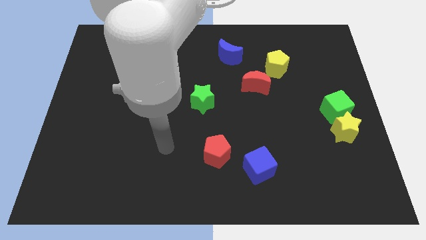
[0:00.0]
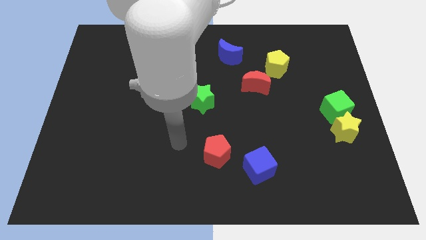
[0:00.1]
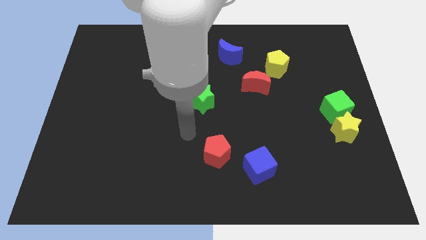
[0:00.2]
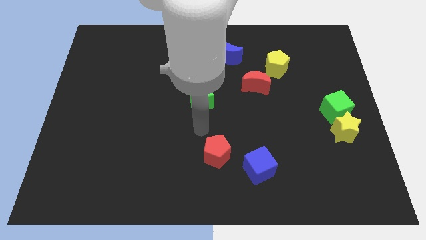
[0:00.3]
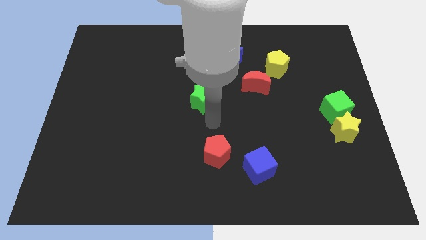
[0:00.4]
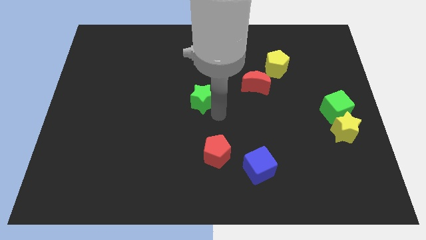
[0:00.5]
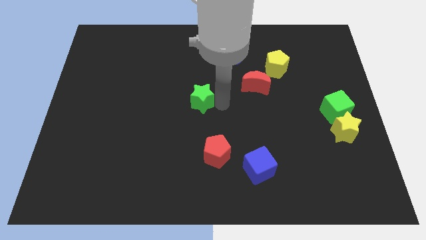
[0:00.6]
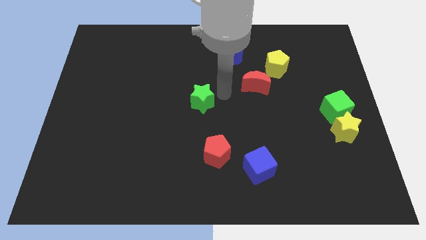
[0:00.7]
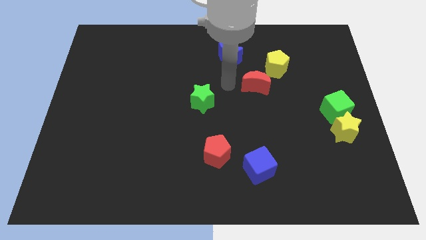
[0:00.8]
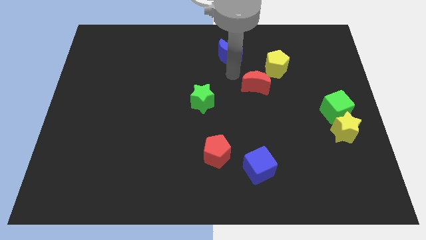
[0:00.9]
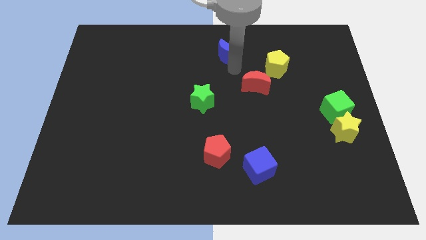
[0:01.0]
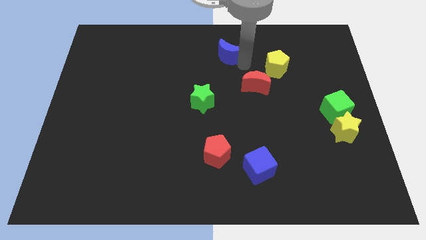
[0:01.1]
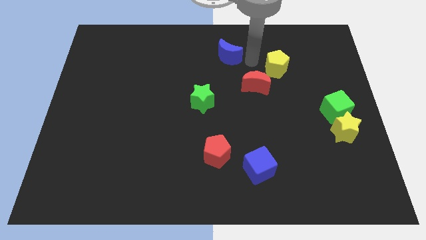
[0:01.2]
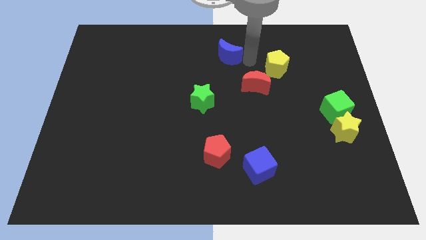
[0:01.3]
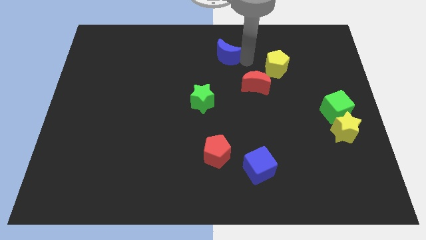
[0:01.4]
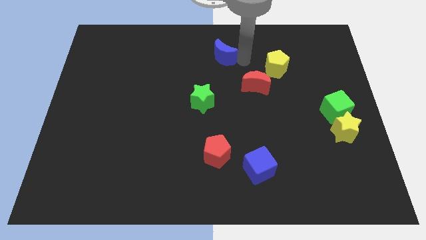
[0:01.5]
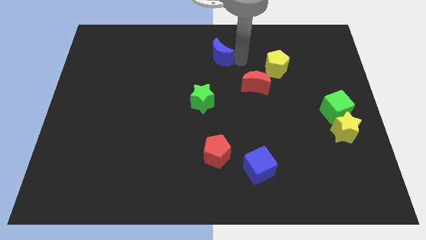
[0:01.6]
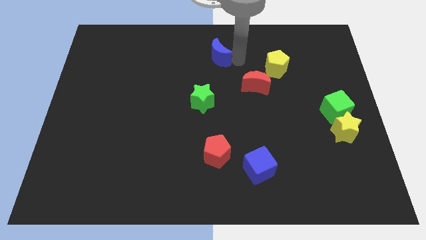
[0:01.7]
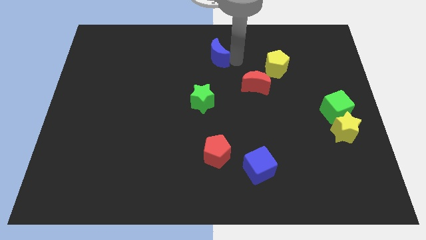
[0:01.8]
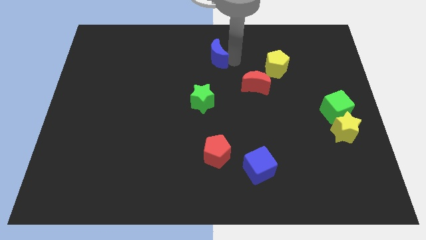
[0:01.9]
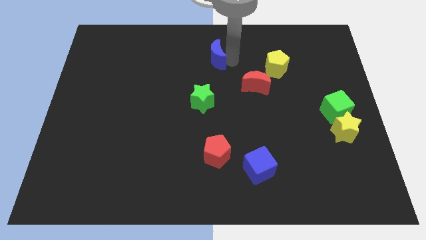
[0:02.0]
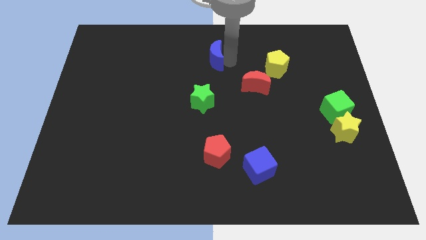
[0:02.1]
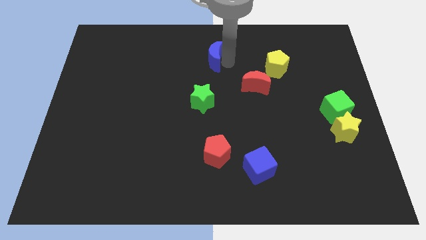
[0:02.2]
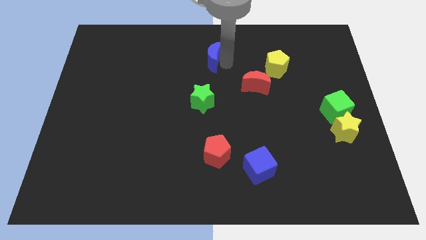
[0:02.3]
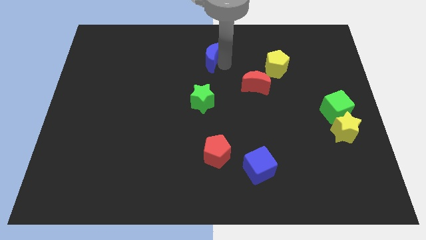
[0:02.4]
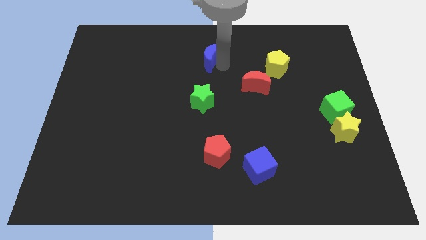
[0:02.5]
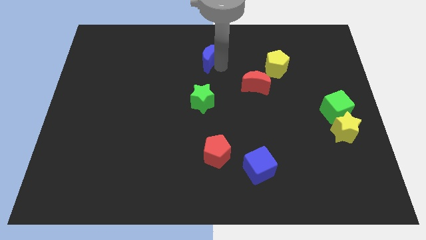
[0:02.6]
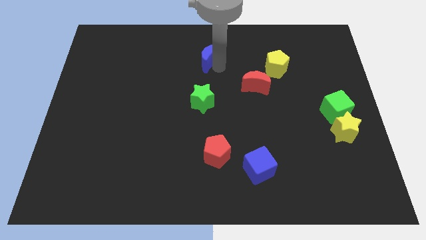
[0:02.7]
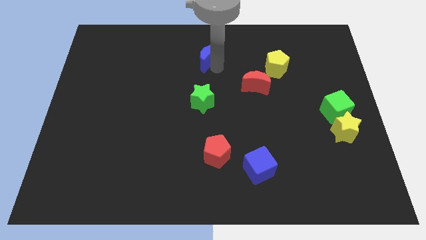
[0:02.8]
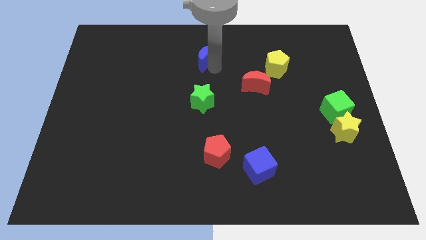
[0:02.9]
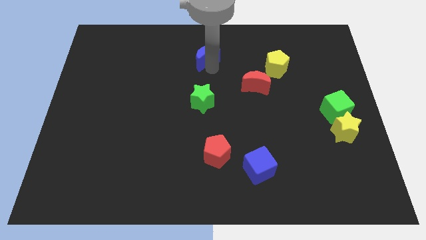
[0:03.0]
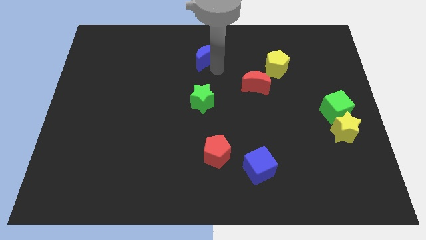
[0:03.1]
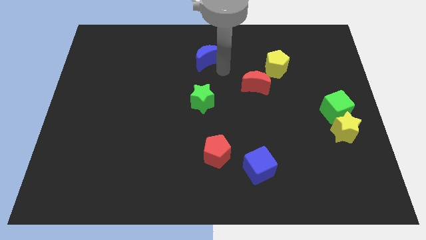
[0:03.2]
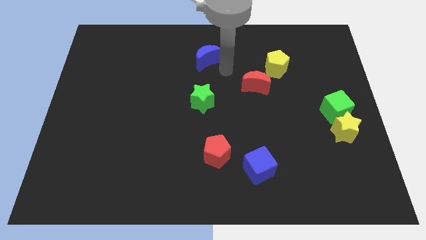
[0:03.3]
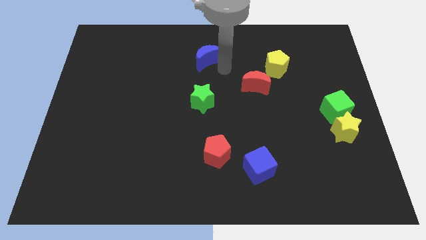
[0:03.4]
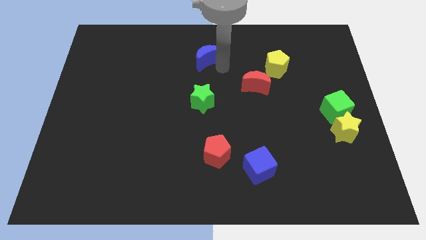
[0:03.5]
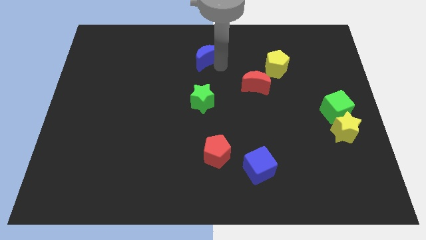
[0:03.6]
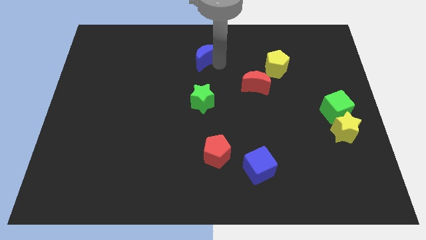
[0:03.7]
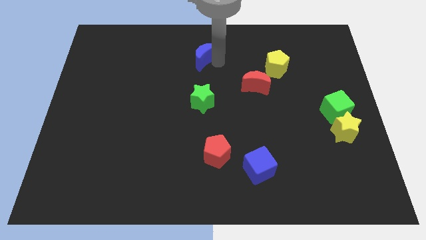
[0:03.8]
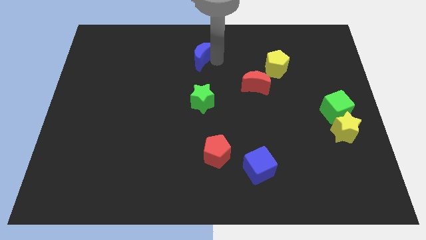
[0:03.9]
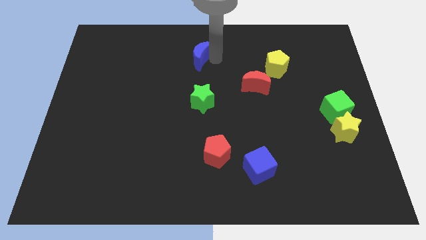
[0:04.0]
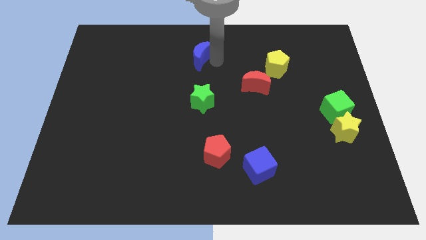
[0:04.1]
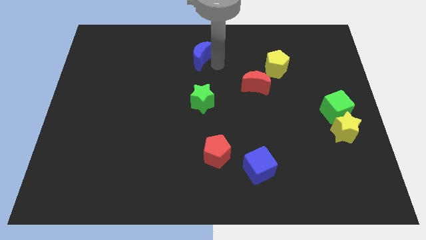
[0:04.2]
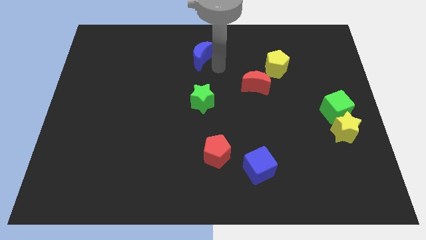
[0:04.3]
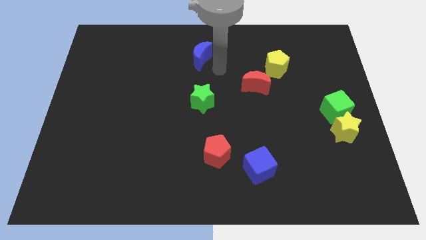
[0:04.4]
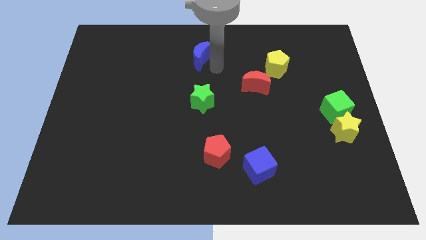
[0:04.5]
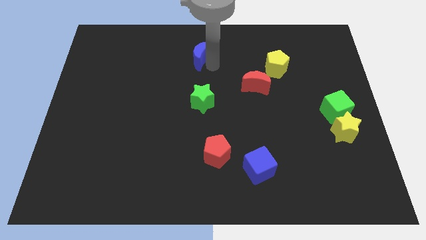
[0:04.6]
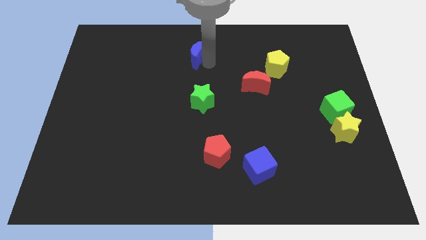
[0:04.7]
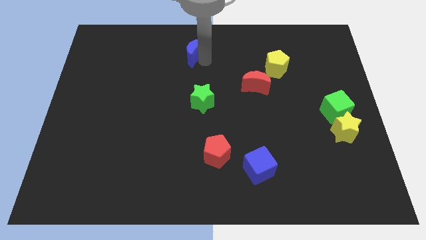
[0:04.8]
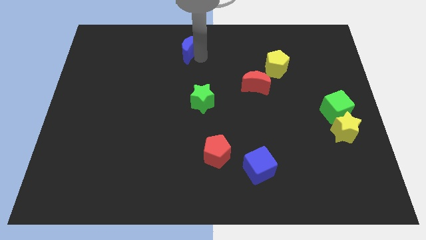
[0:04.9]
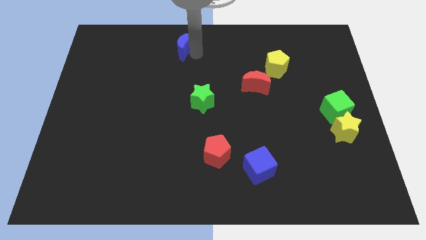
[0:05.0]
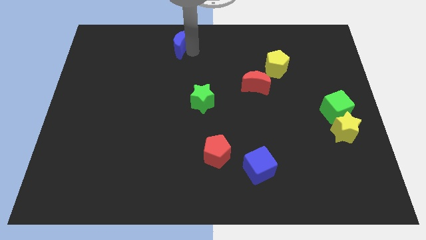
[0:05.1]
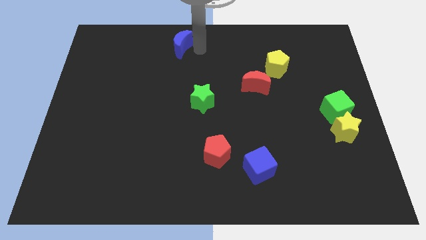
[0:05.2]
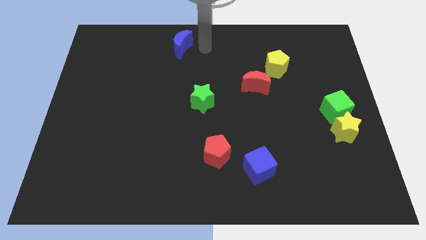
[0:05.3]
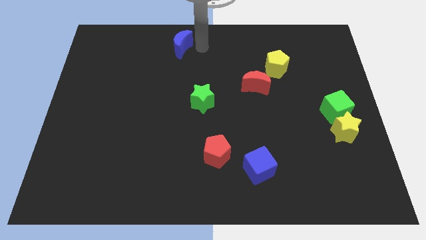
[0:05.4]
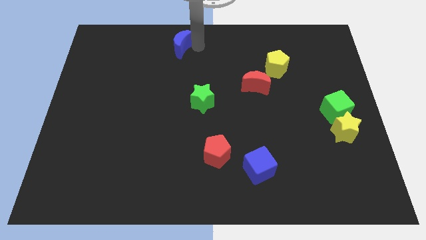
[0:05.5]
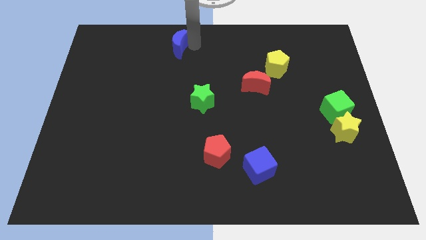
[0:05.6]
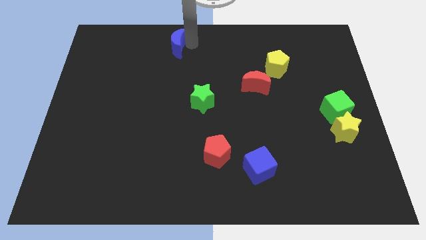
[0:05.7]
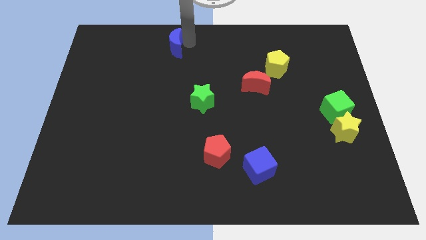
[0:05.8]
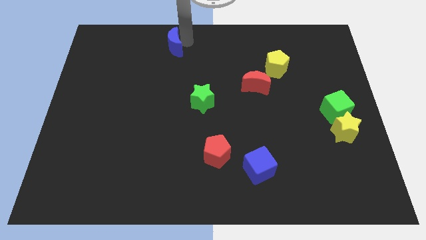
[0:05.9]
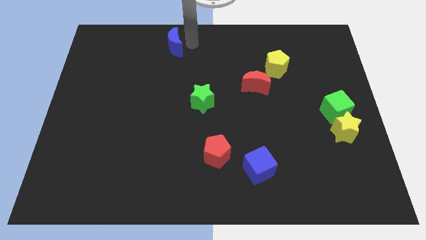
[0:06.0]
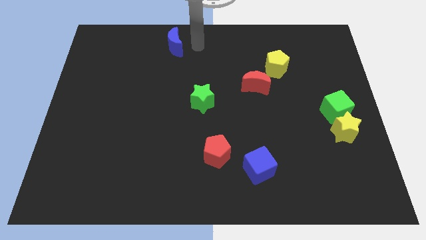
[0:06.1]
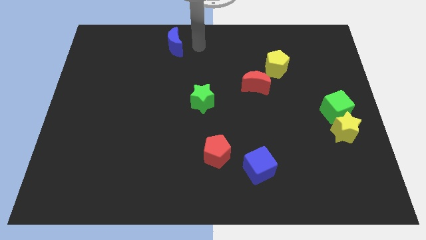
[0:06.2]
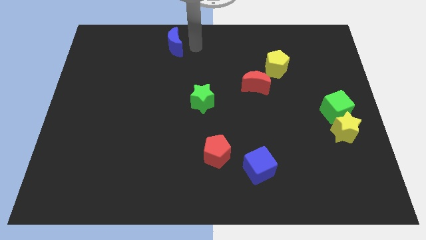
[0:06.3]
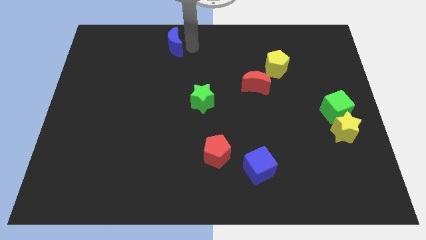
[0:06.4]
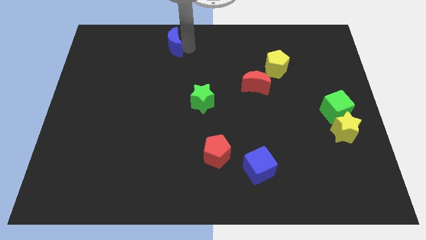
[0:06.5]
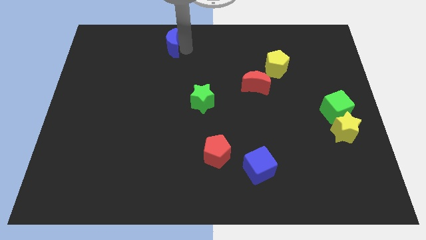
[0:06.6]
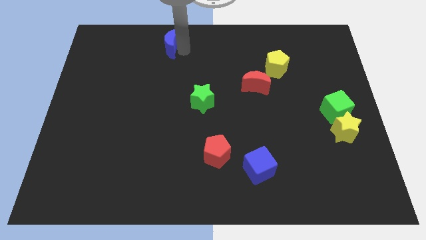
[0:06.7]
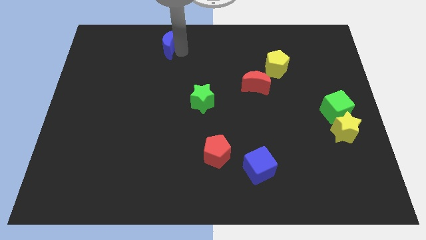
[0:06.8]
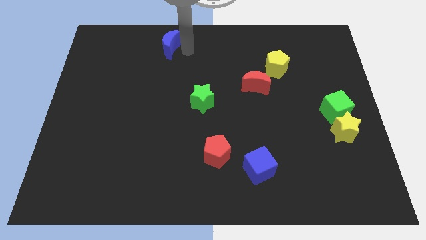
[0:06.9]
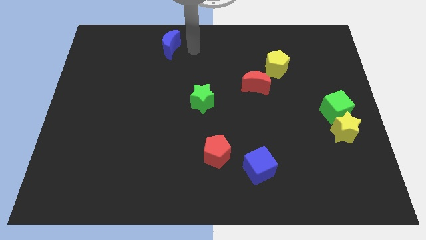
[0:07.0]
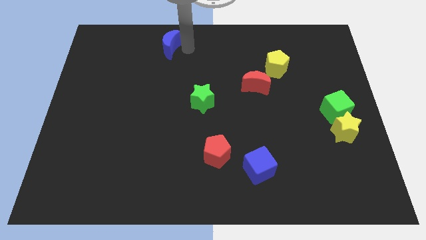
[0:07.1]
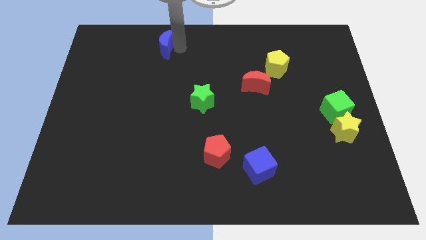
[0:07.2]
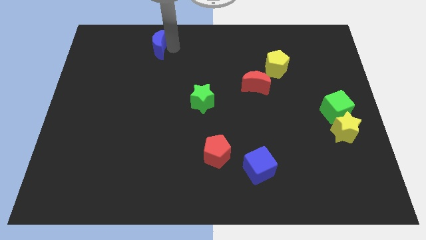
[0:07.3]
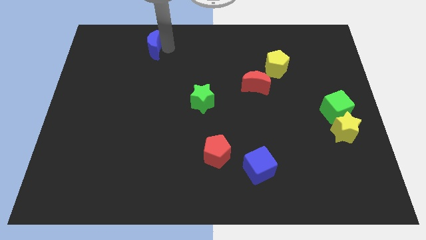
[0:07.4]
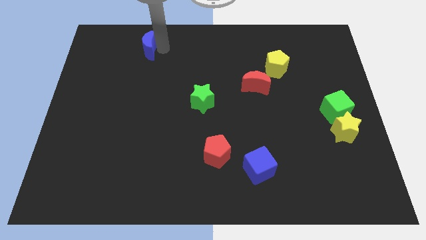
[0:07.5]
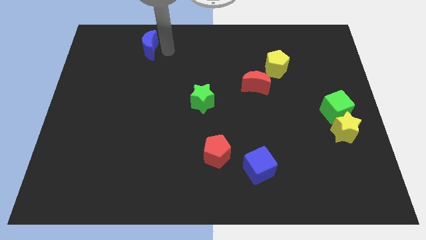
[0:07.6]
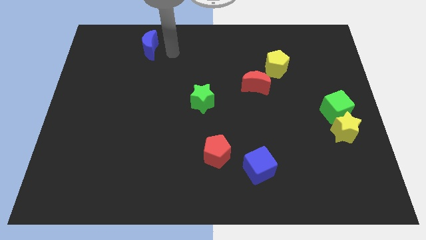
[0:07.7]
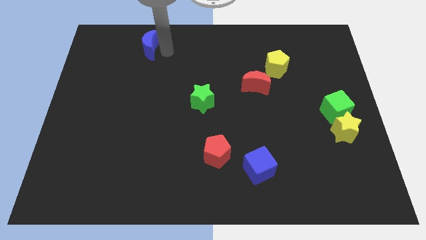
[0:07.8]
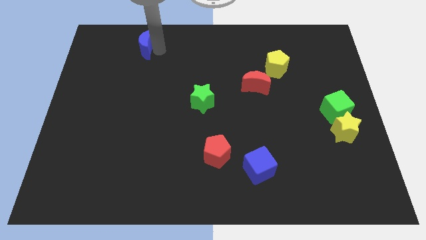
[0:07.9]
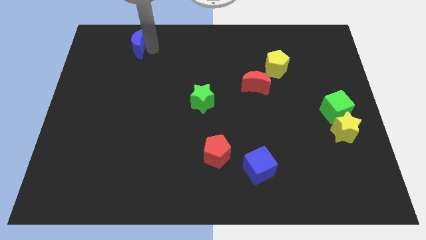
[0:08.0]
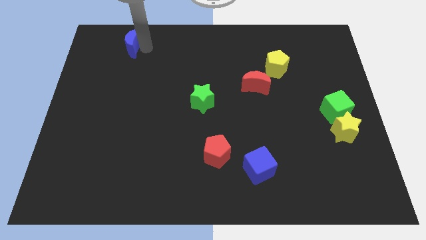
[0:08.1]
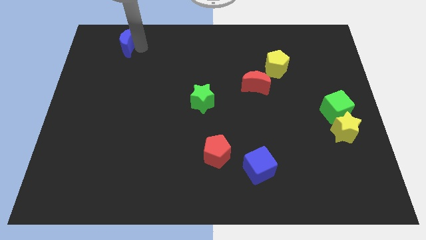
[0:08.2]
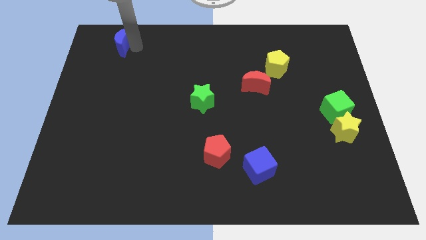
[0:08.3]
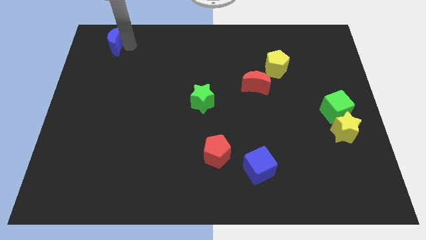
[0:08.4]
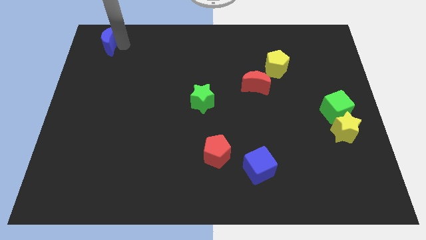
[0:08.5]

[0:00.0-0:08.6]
put the blue moon to the top left of the board
